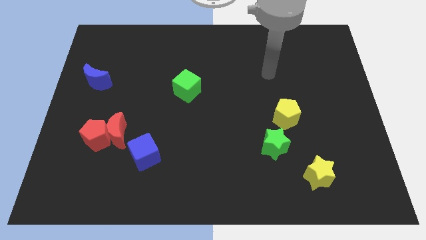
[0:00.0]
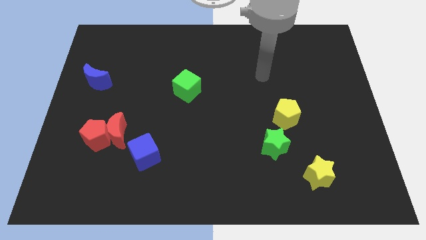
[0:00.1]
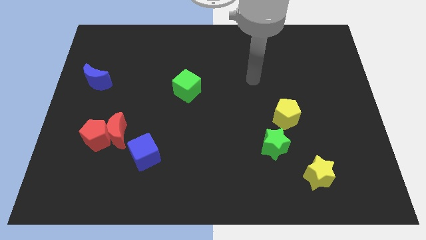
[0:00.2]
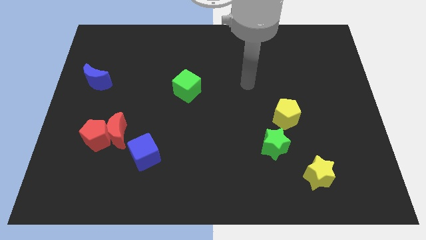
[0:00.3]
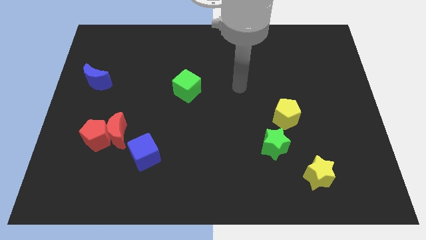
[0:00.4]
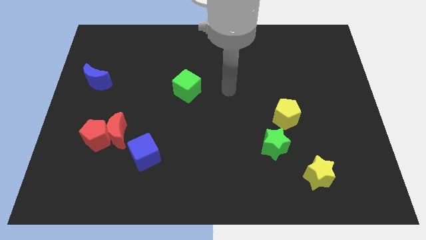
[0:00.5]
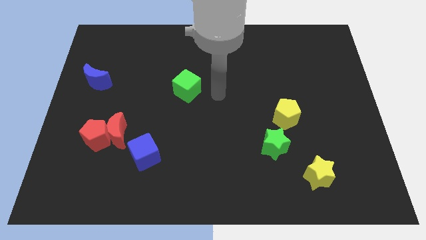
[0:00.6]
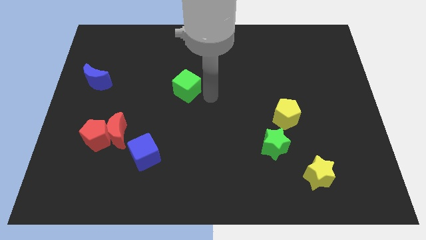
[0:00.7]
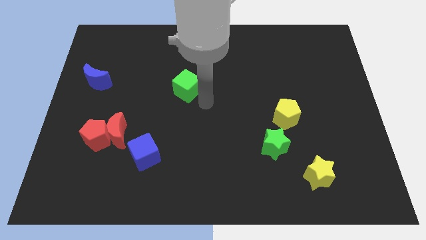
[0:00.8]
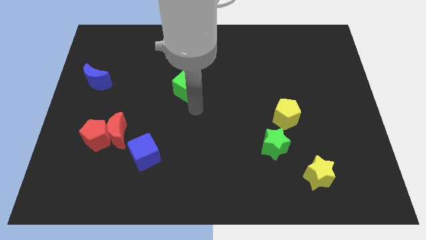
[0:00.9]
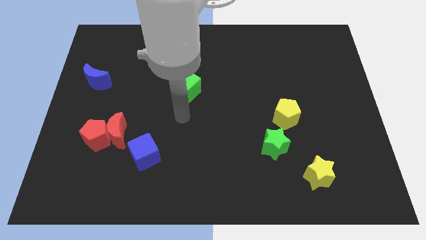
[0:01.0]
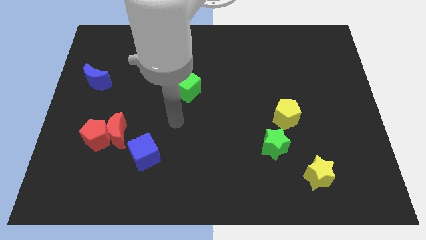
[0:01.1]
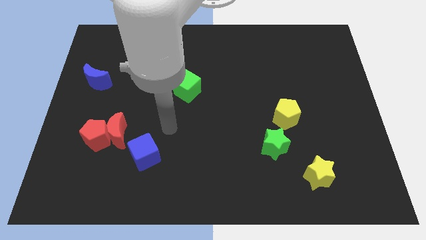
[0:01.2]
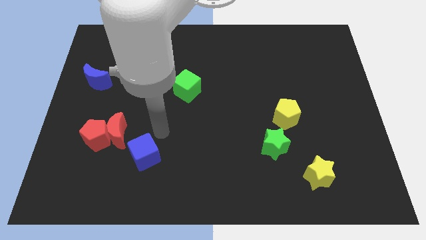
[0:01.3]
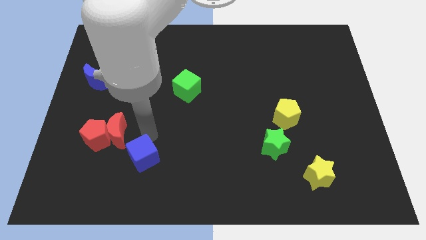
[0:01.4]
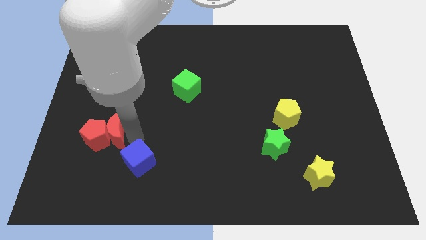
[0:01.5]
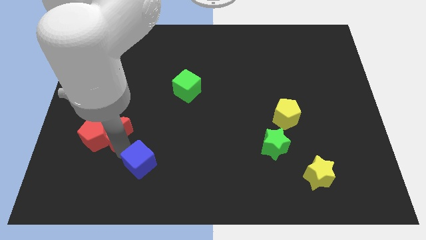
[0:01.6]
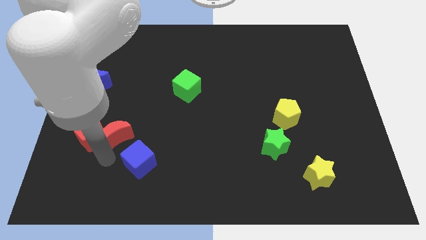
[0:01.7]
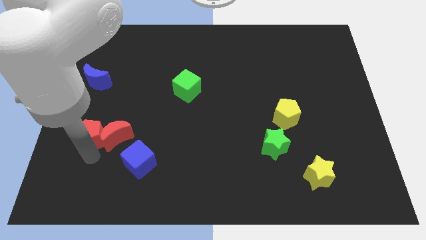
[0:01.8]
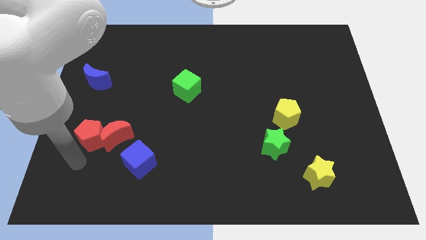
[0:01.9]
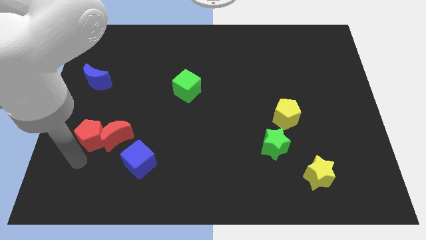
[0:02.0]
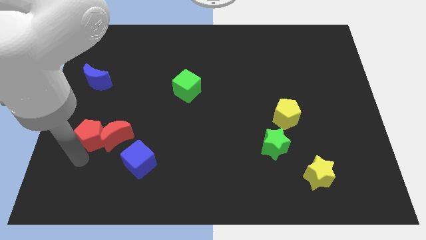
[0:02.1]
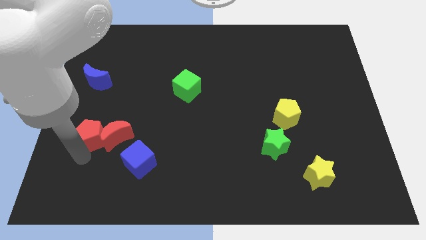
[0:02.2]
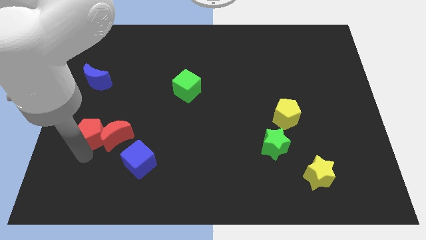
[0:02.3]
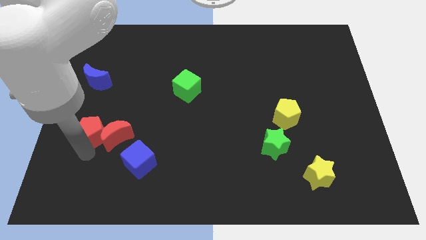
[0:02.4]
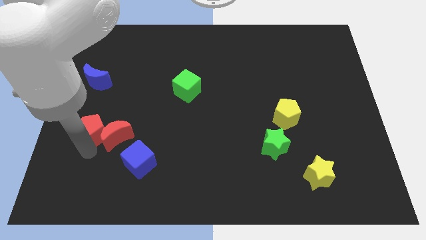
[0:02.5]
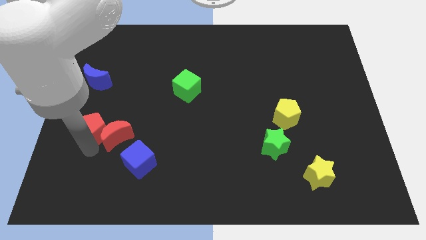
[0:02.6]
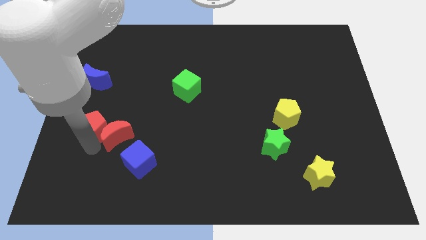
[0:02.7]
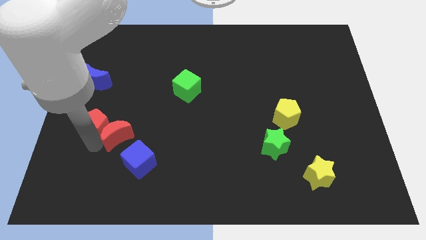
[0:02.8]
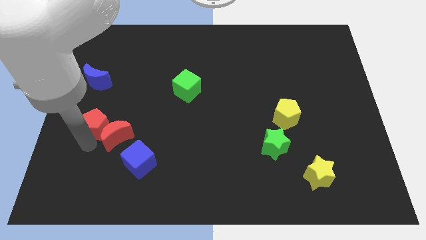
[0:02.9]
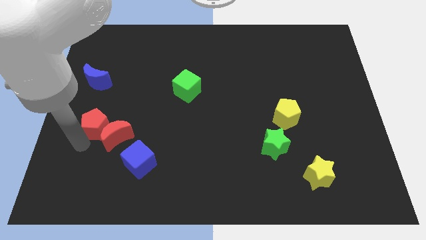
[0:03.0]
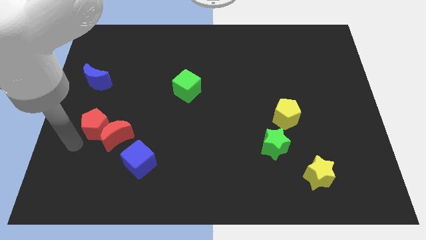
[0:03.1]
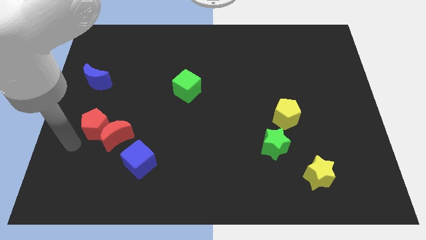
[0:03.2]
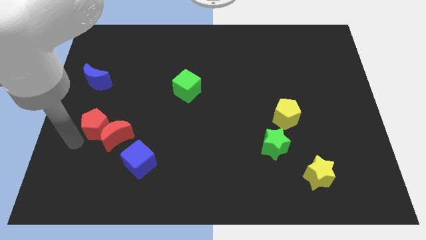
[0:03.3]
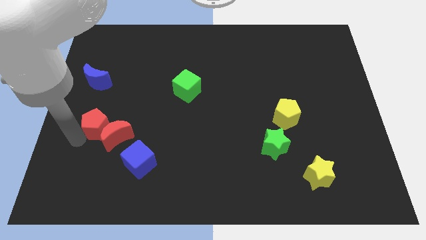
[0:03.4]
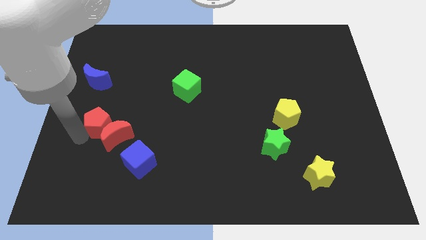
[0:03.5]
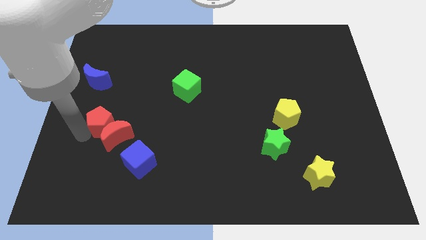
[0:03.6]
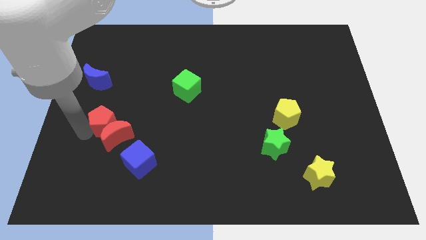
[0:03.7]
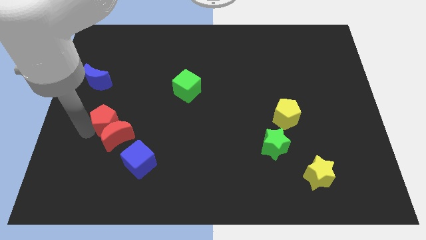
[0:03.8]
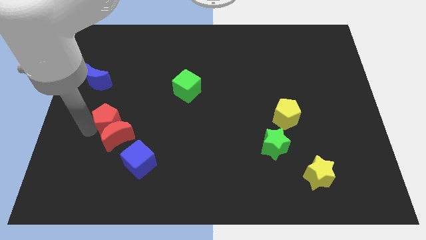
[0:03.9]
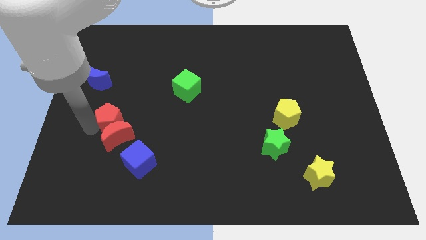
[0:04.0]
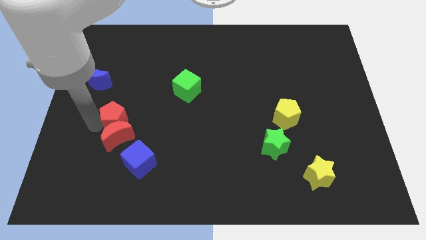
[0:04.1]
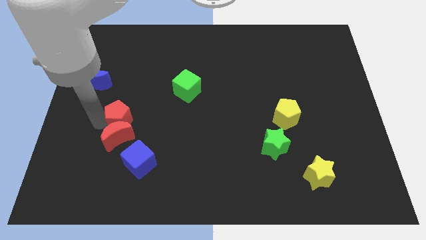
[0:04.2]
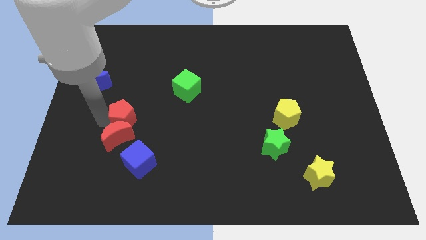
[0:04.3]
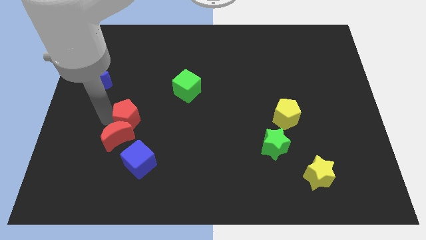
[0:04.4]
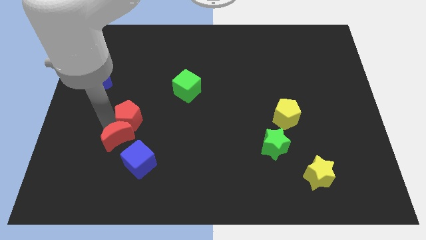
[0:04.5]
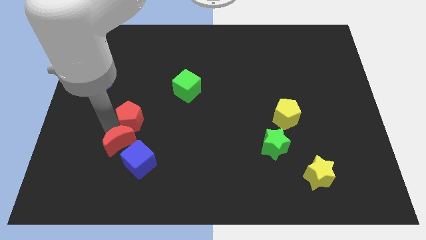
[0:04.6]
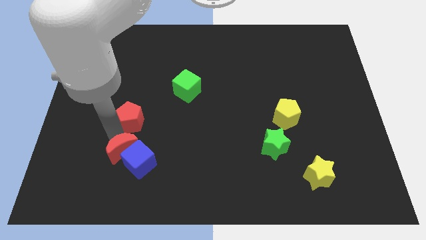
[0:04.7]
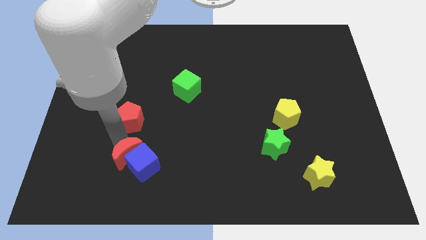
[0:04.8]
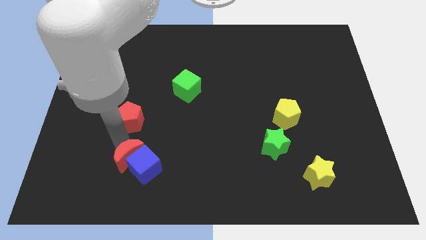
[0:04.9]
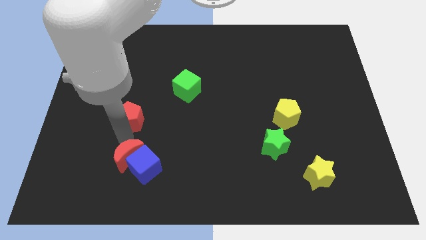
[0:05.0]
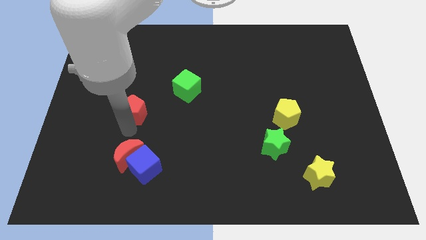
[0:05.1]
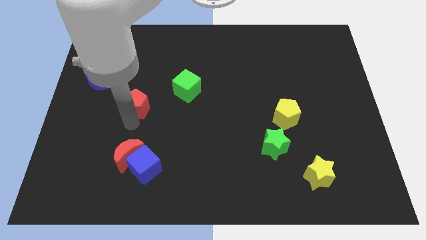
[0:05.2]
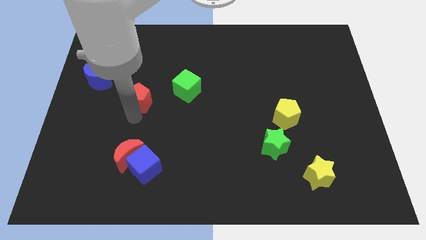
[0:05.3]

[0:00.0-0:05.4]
slide the red pentagon to the left side of the green cube

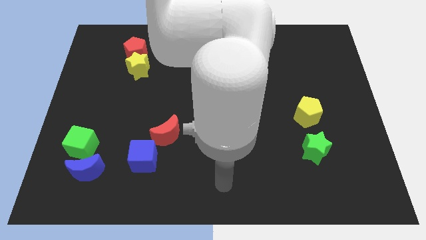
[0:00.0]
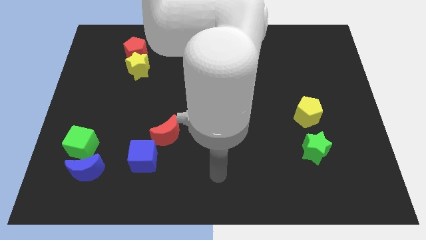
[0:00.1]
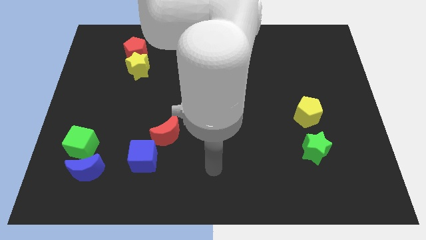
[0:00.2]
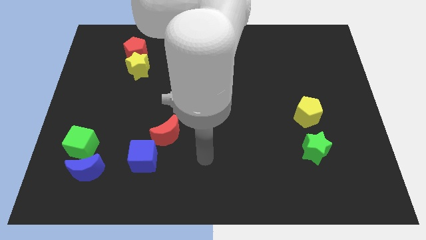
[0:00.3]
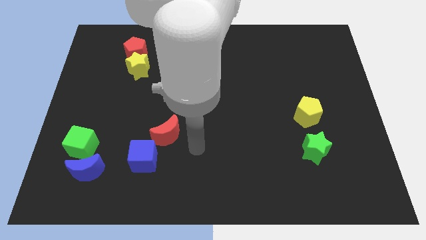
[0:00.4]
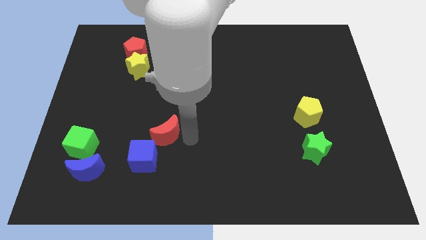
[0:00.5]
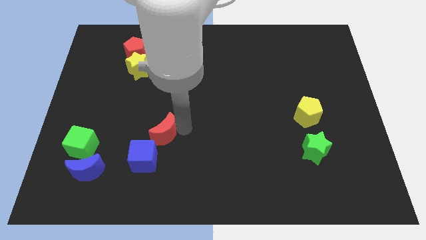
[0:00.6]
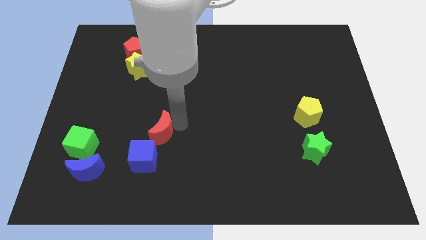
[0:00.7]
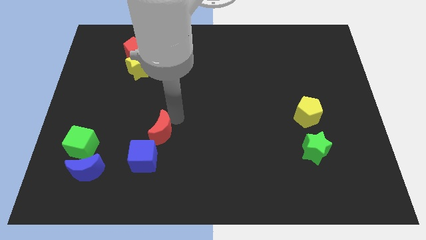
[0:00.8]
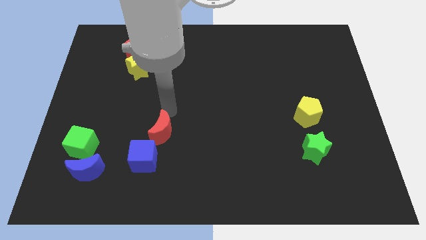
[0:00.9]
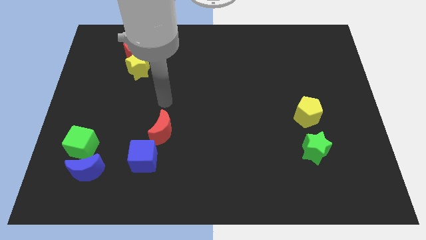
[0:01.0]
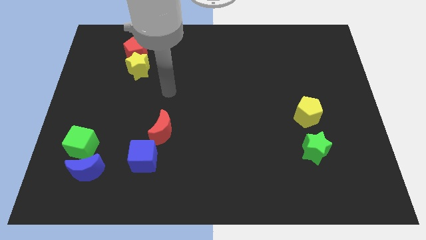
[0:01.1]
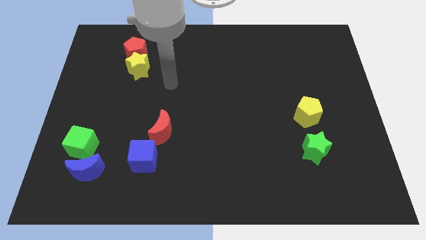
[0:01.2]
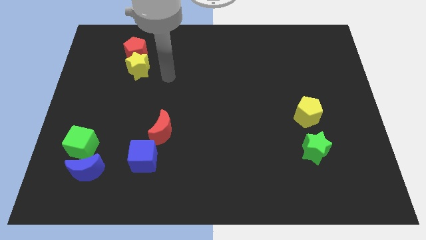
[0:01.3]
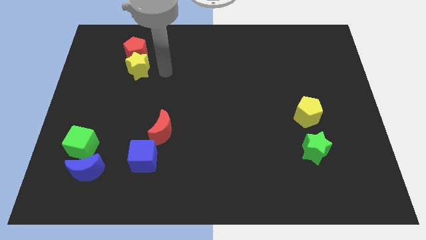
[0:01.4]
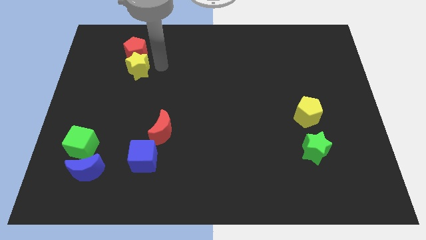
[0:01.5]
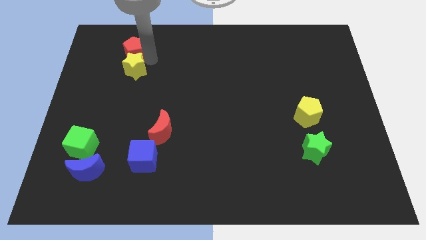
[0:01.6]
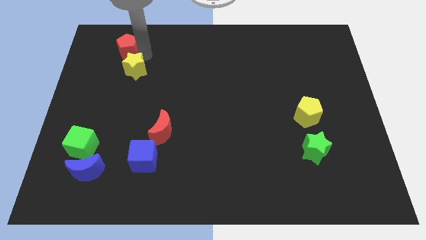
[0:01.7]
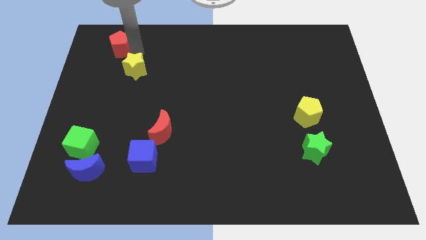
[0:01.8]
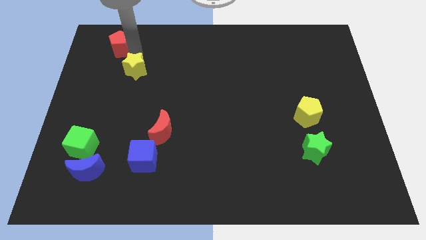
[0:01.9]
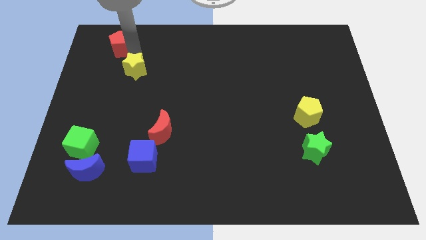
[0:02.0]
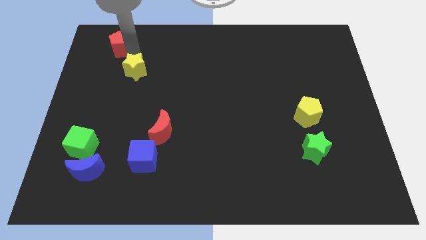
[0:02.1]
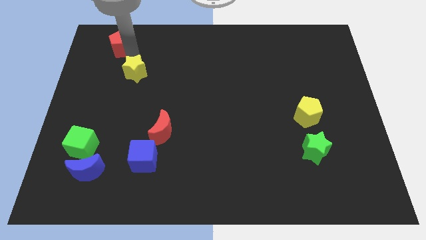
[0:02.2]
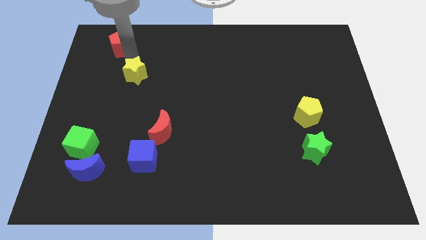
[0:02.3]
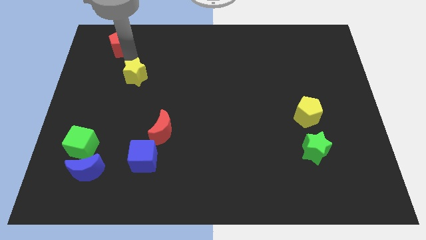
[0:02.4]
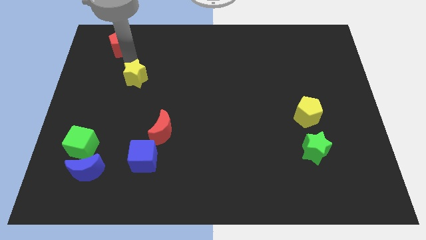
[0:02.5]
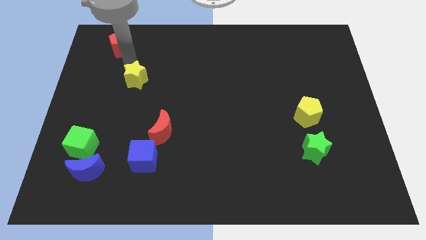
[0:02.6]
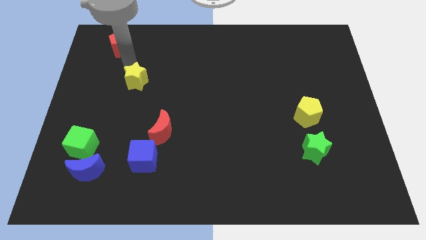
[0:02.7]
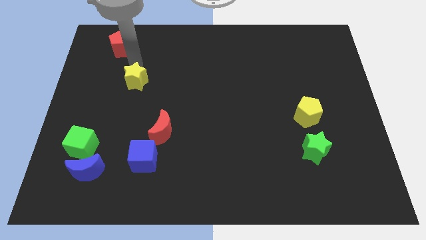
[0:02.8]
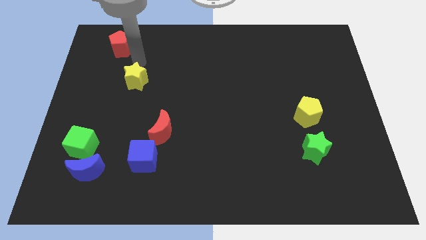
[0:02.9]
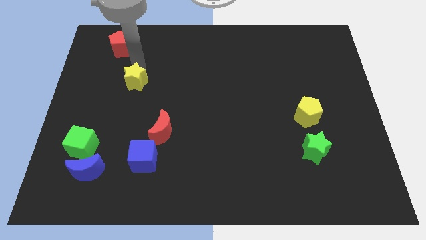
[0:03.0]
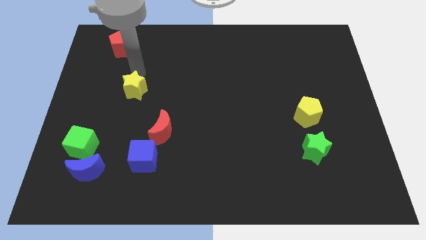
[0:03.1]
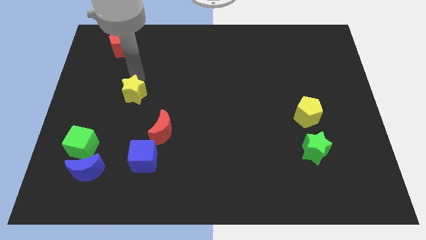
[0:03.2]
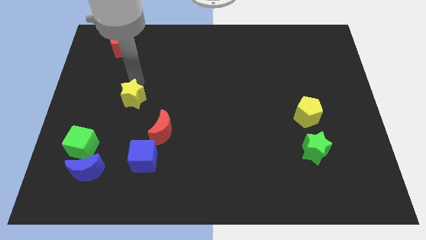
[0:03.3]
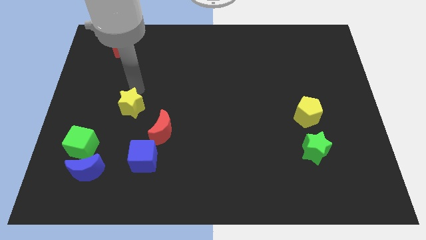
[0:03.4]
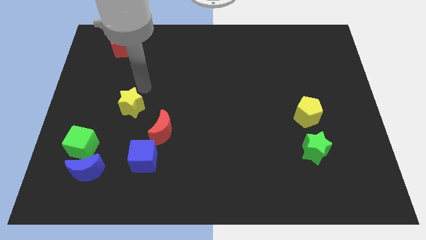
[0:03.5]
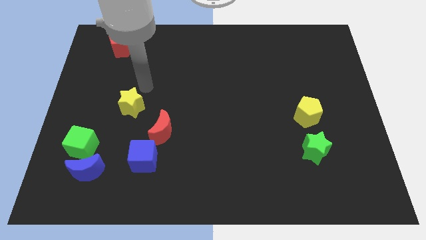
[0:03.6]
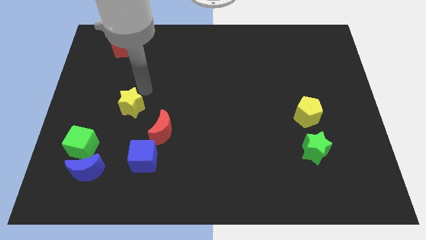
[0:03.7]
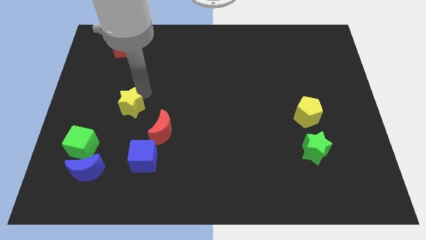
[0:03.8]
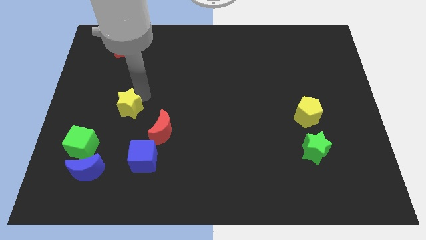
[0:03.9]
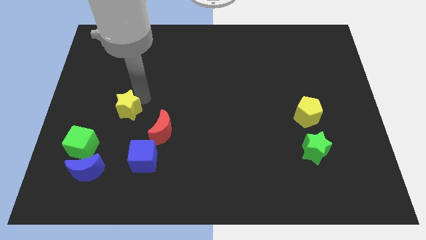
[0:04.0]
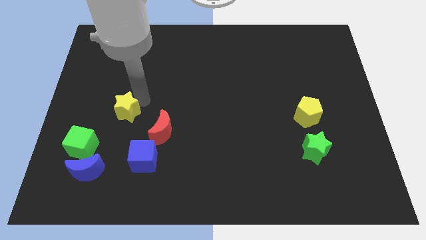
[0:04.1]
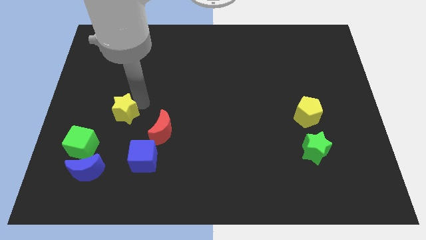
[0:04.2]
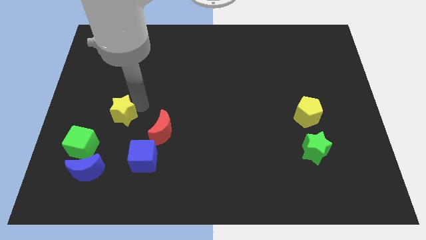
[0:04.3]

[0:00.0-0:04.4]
move the yellow star left of the red moon
